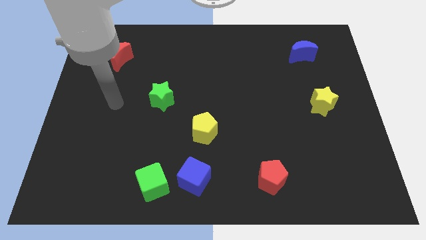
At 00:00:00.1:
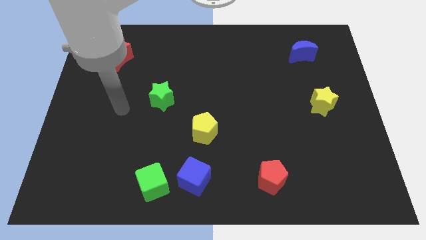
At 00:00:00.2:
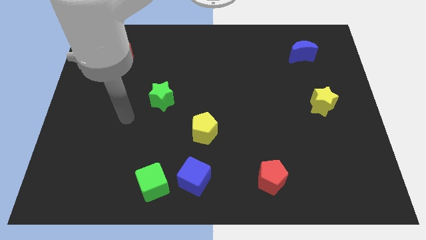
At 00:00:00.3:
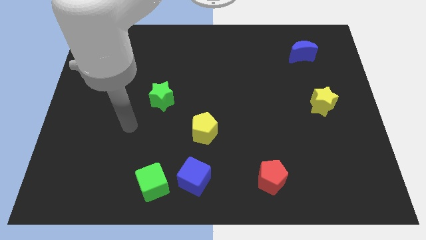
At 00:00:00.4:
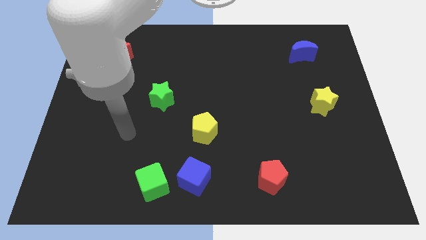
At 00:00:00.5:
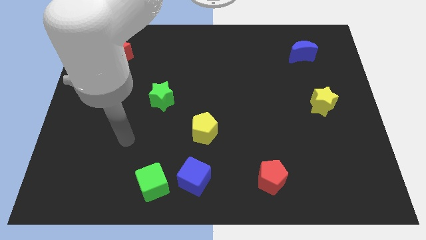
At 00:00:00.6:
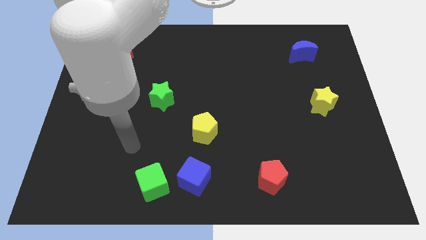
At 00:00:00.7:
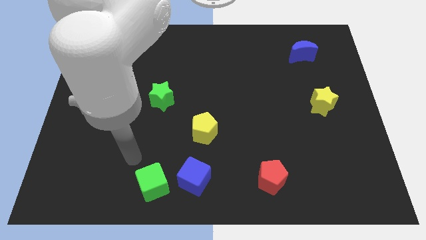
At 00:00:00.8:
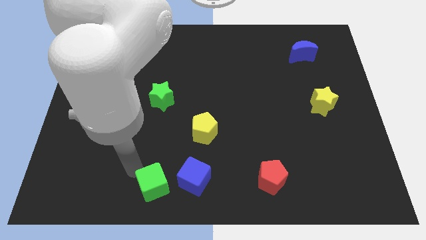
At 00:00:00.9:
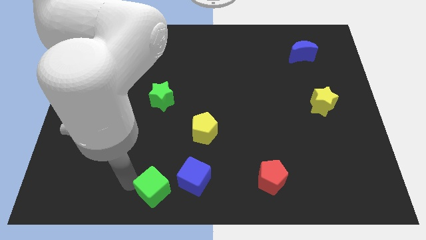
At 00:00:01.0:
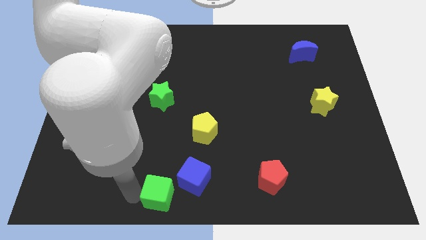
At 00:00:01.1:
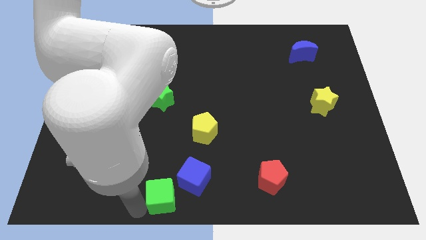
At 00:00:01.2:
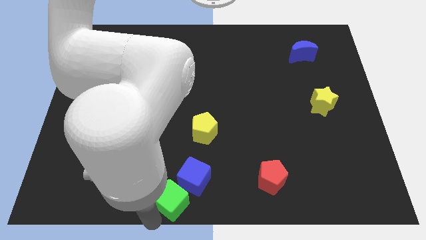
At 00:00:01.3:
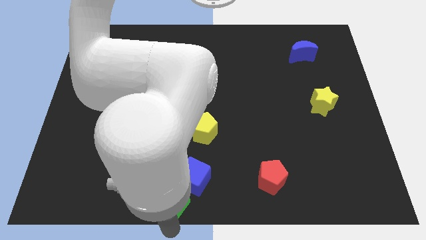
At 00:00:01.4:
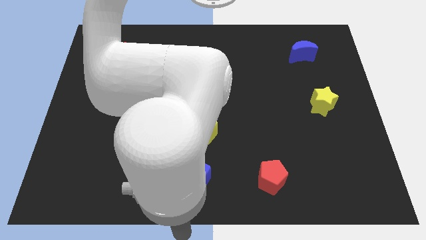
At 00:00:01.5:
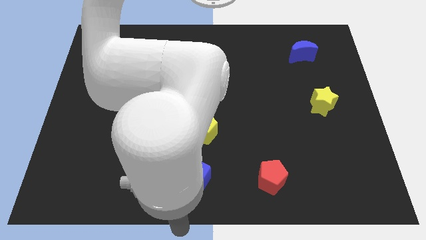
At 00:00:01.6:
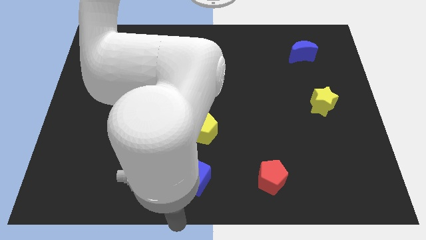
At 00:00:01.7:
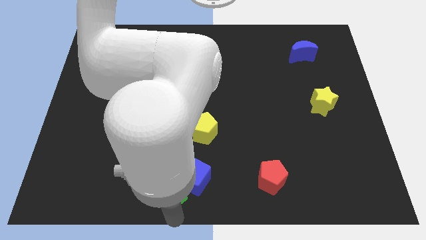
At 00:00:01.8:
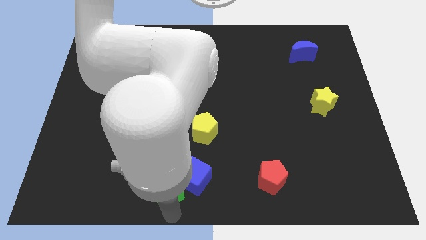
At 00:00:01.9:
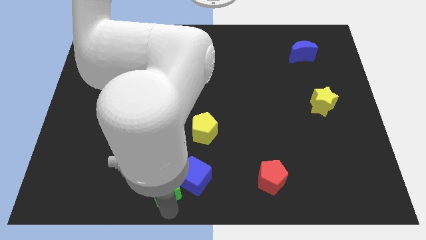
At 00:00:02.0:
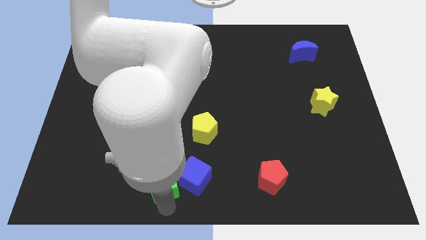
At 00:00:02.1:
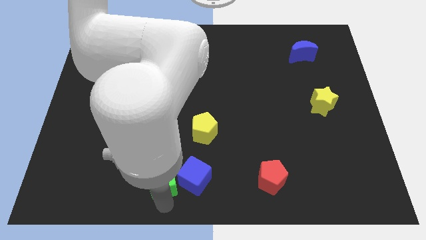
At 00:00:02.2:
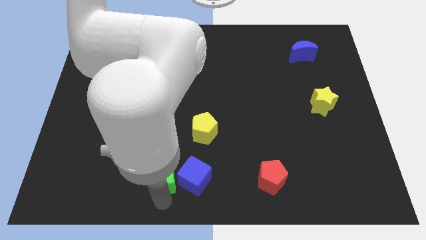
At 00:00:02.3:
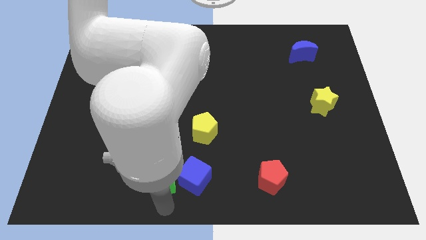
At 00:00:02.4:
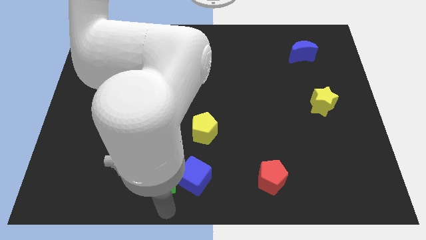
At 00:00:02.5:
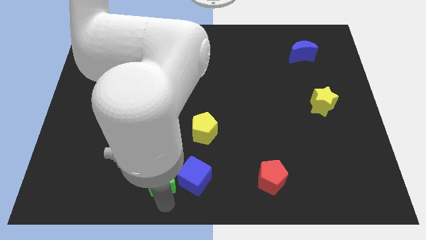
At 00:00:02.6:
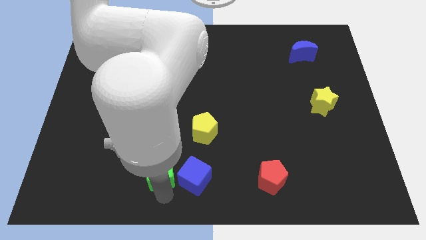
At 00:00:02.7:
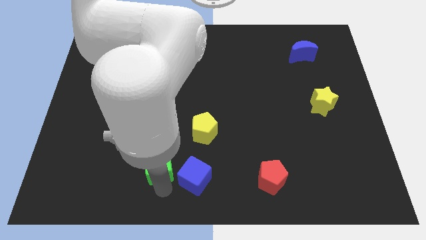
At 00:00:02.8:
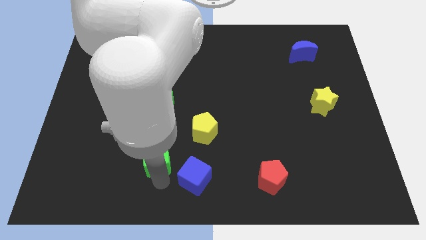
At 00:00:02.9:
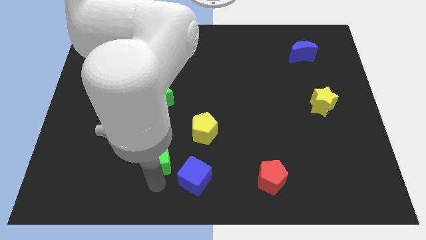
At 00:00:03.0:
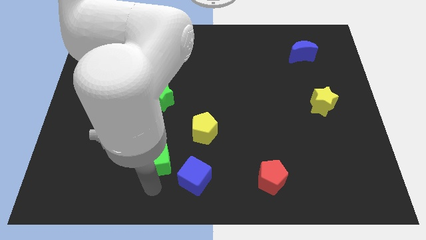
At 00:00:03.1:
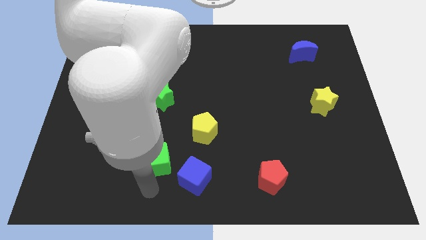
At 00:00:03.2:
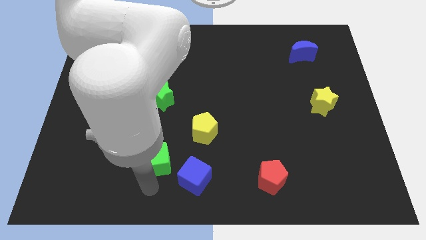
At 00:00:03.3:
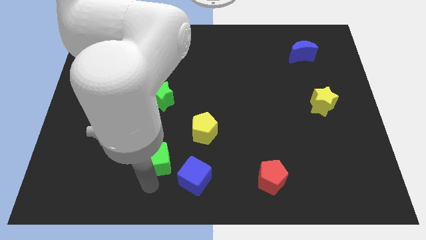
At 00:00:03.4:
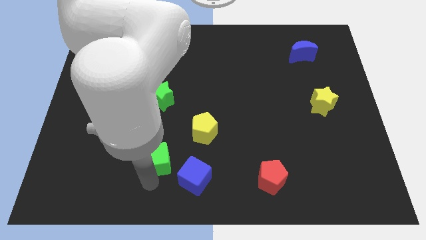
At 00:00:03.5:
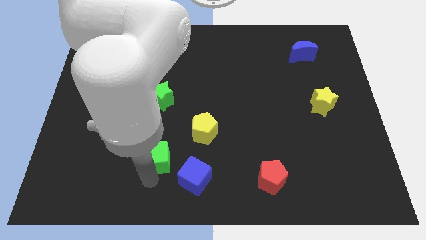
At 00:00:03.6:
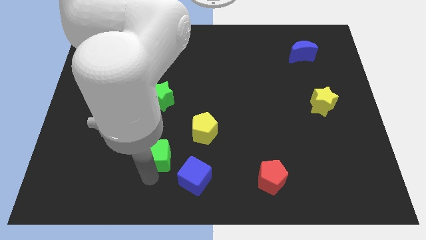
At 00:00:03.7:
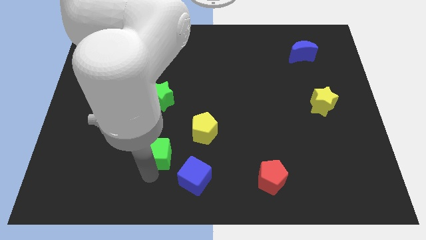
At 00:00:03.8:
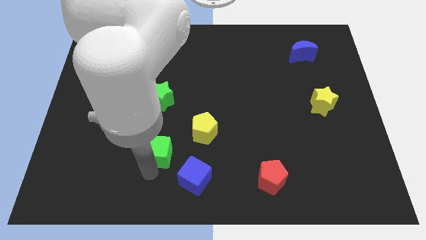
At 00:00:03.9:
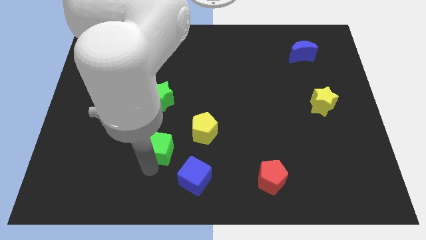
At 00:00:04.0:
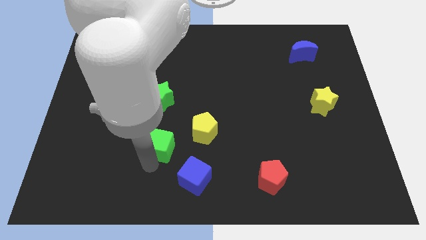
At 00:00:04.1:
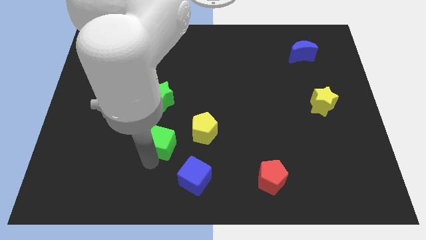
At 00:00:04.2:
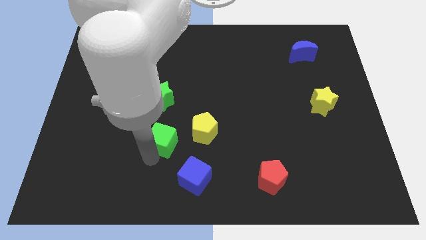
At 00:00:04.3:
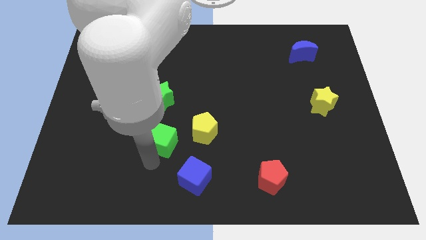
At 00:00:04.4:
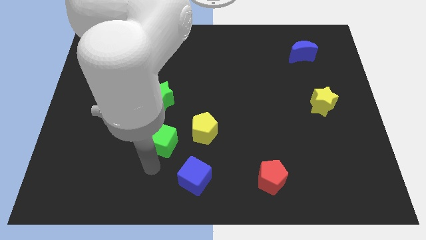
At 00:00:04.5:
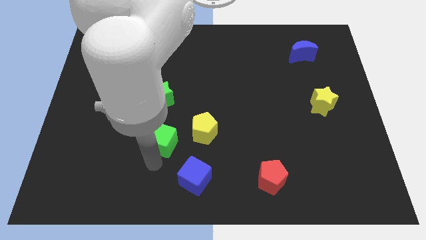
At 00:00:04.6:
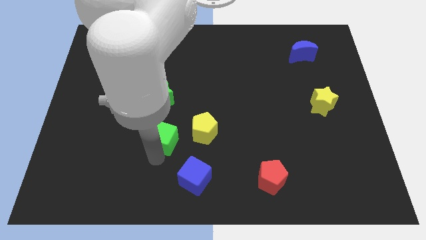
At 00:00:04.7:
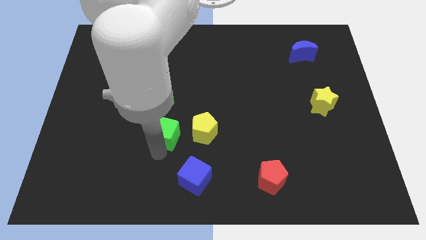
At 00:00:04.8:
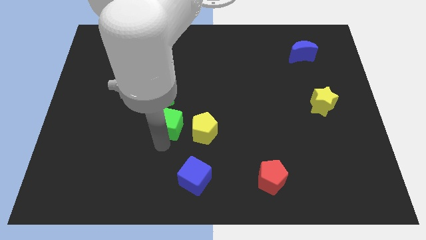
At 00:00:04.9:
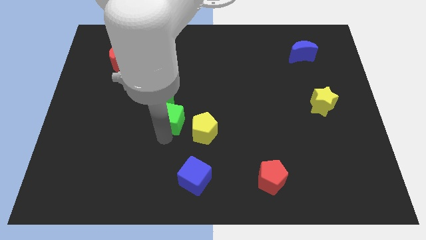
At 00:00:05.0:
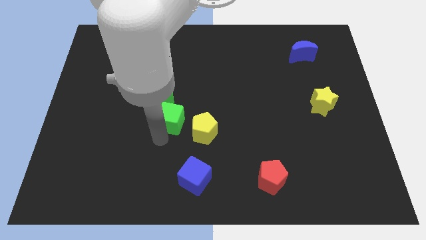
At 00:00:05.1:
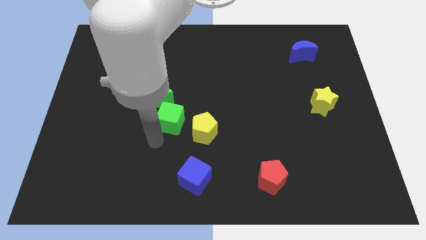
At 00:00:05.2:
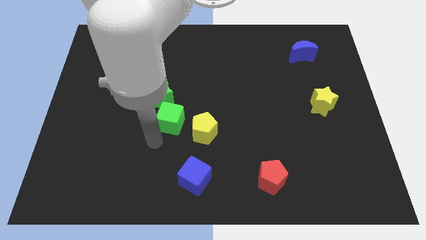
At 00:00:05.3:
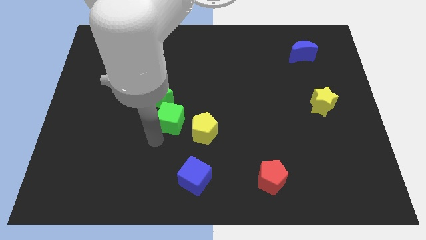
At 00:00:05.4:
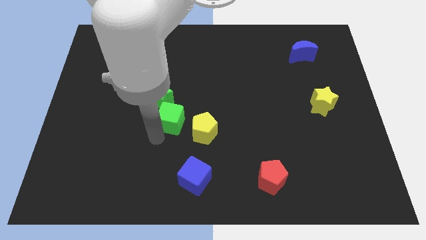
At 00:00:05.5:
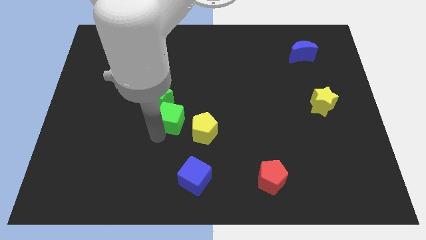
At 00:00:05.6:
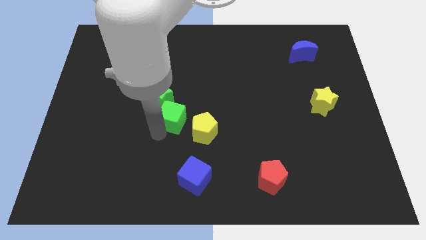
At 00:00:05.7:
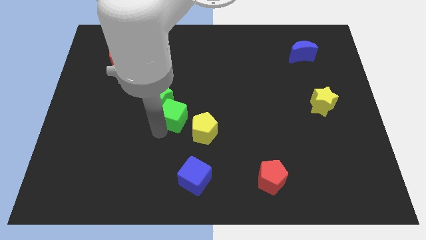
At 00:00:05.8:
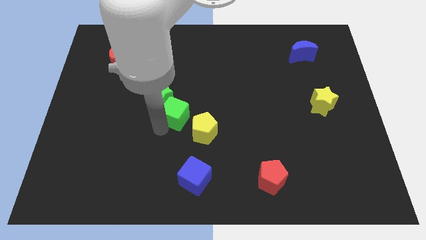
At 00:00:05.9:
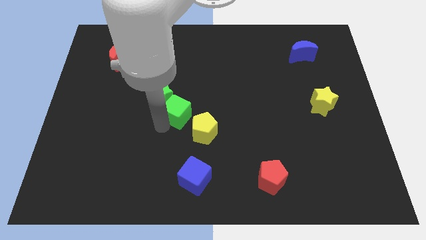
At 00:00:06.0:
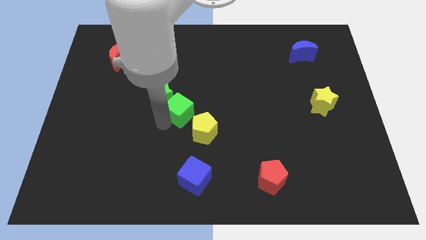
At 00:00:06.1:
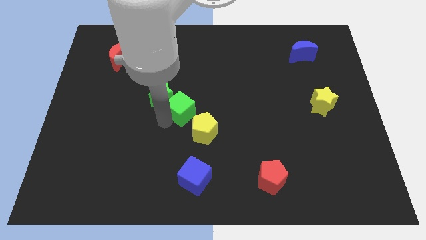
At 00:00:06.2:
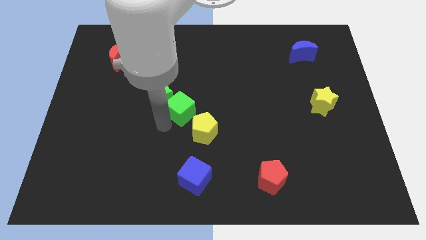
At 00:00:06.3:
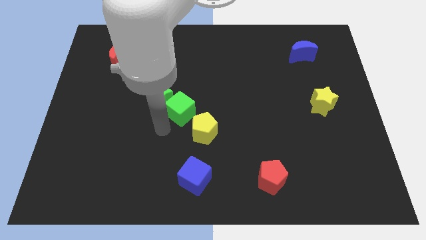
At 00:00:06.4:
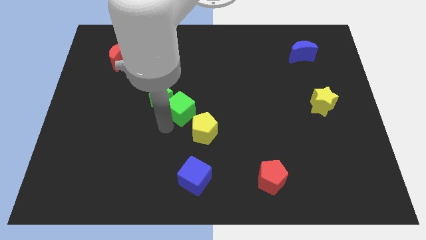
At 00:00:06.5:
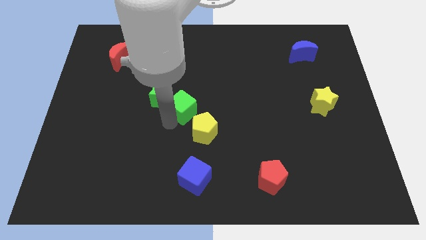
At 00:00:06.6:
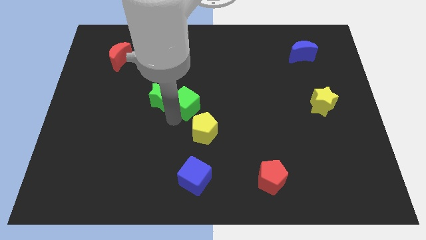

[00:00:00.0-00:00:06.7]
put the green cube to the top side of the yellow pentagon
